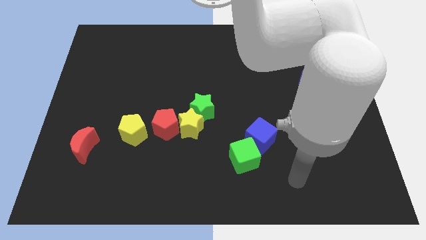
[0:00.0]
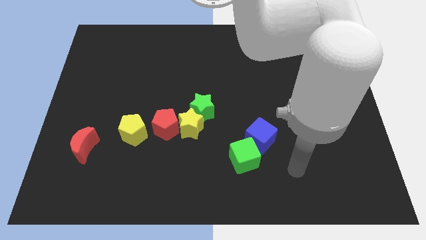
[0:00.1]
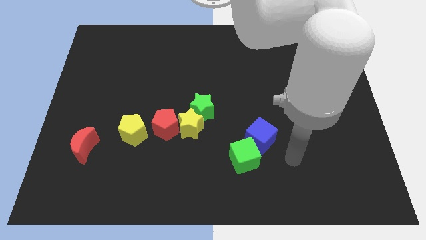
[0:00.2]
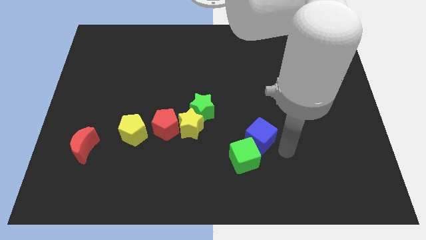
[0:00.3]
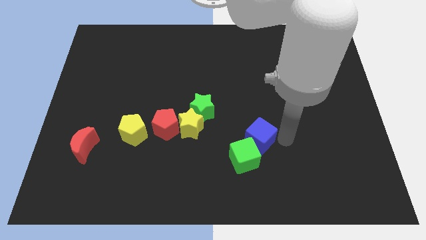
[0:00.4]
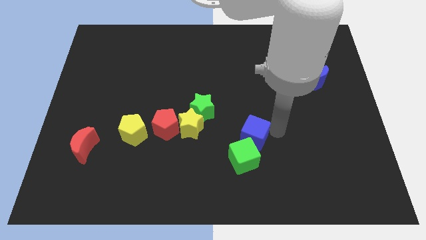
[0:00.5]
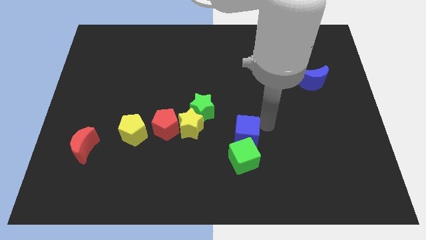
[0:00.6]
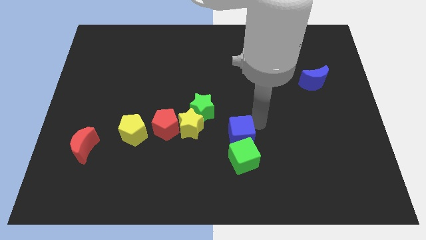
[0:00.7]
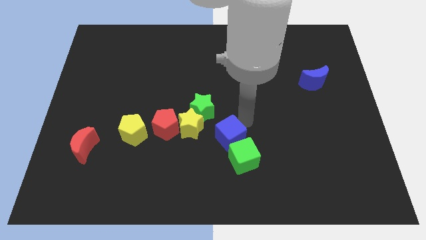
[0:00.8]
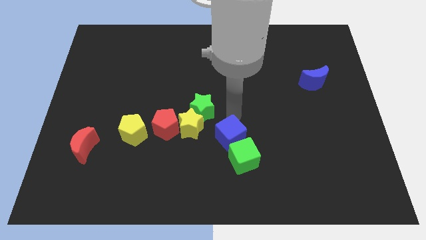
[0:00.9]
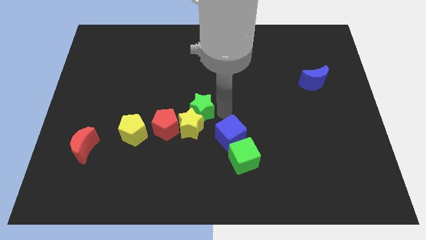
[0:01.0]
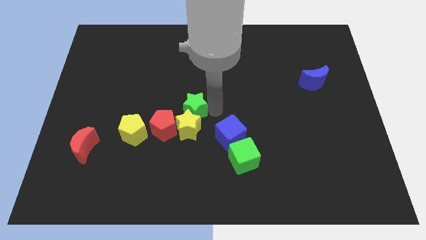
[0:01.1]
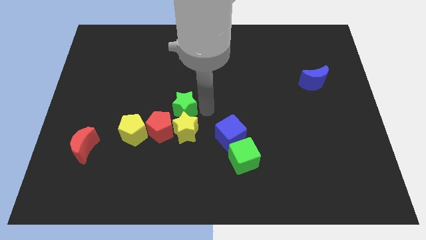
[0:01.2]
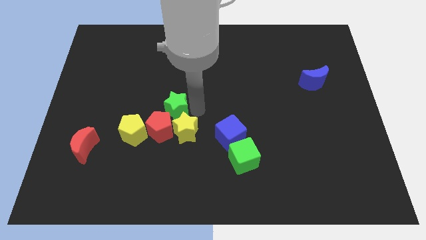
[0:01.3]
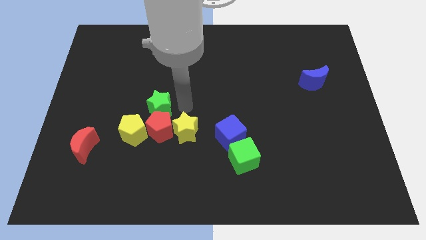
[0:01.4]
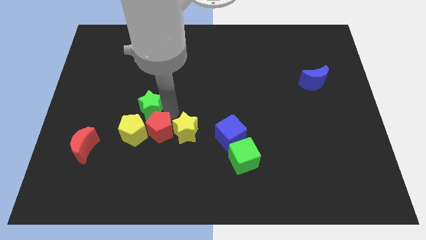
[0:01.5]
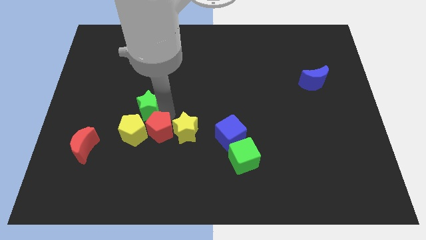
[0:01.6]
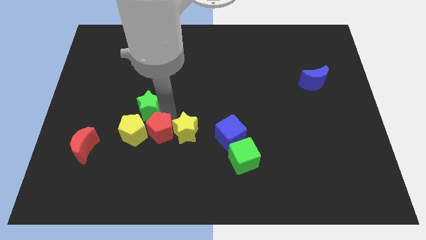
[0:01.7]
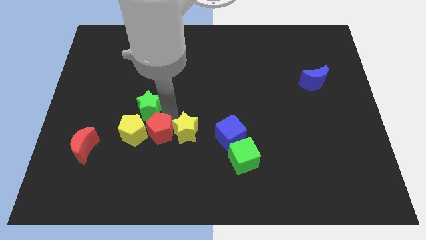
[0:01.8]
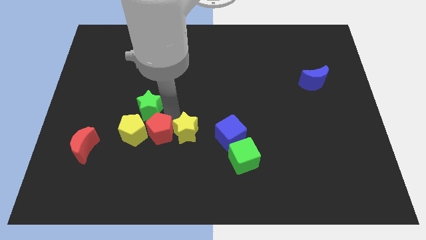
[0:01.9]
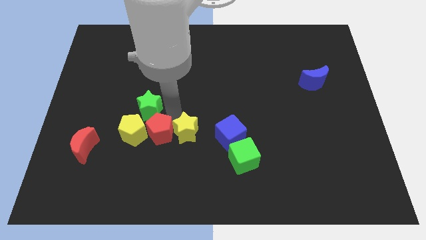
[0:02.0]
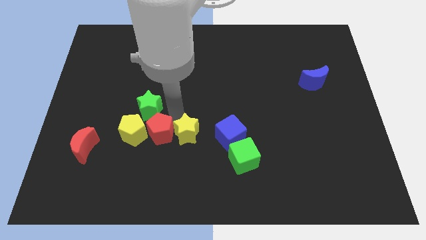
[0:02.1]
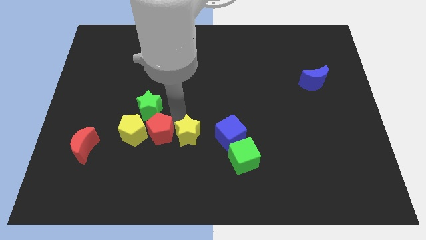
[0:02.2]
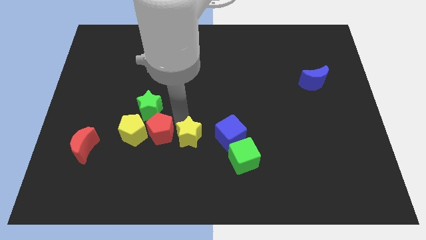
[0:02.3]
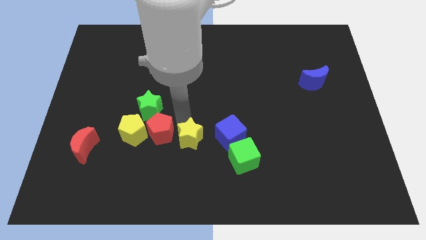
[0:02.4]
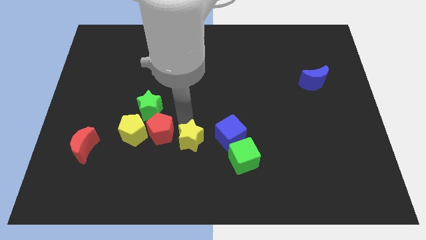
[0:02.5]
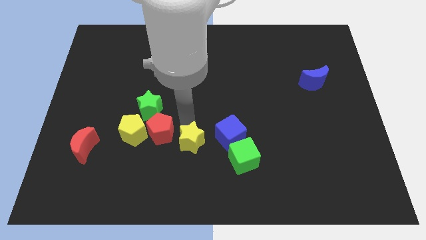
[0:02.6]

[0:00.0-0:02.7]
move the yellow star away from the green star and red pentagon

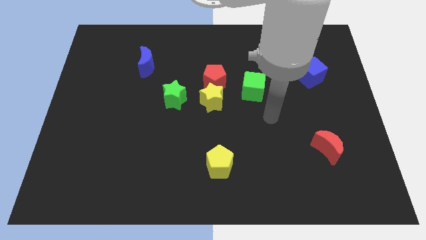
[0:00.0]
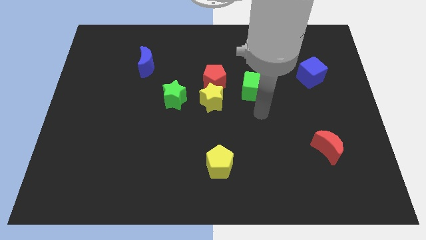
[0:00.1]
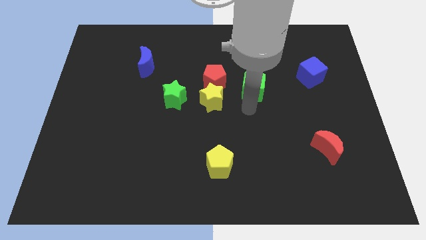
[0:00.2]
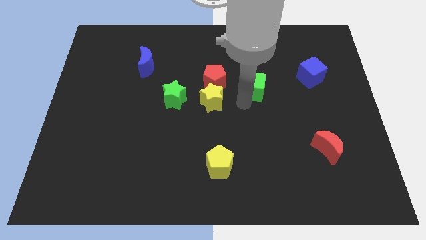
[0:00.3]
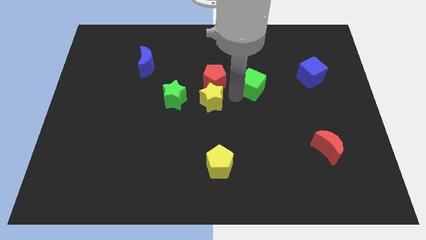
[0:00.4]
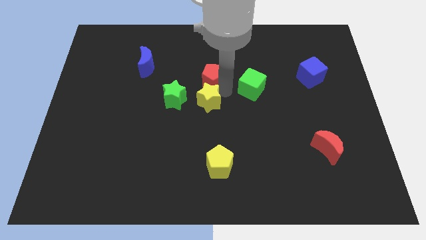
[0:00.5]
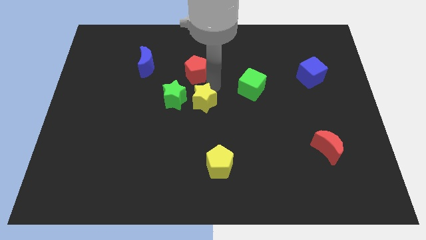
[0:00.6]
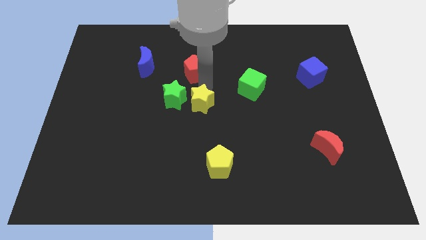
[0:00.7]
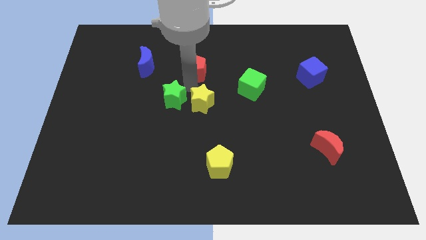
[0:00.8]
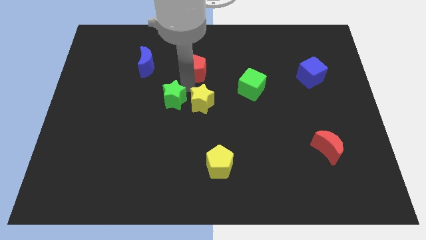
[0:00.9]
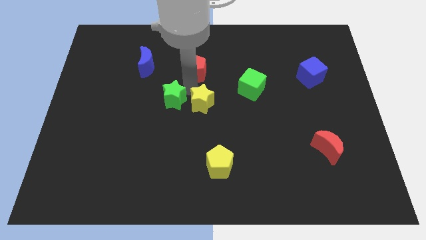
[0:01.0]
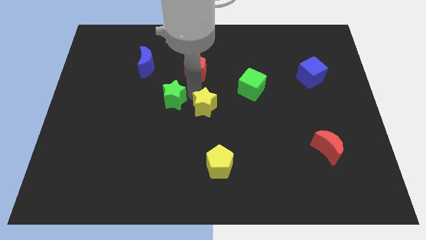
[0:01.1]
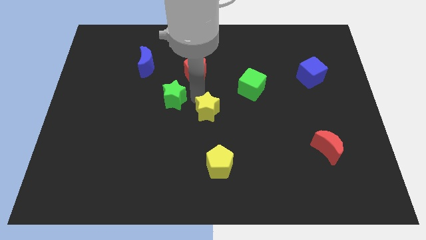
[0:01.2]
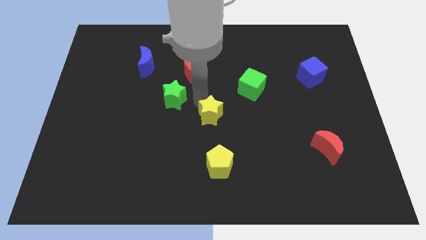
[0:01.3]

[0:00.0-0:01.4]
move the yellow star away from the red pentagon and green star

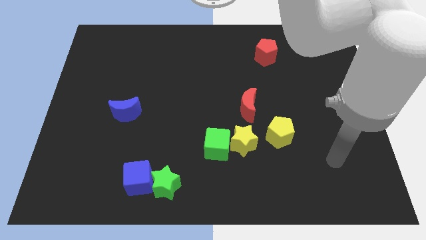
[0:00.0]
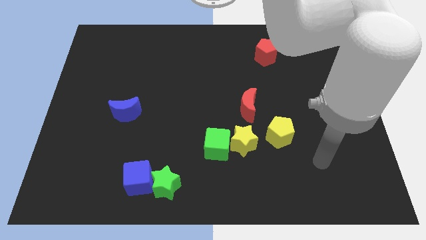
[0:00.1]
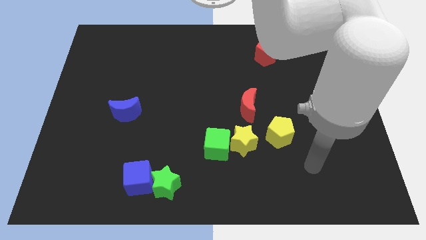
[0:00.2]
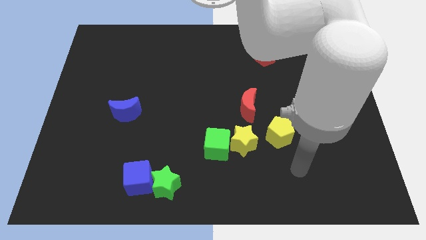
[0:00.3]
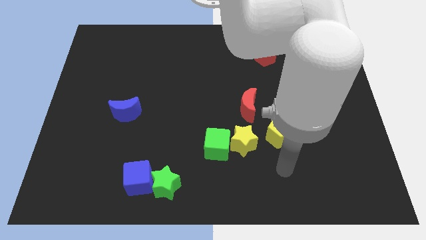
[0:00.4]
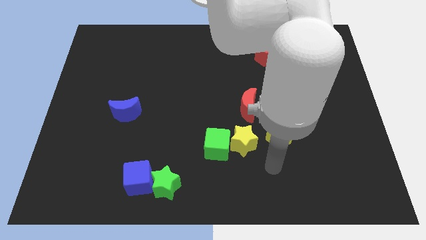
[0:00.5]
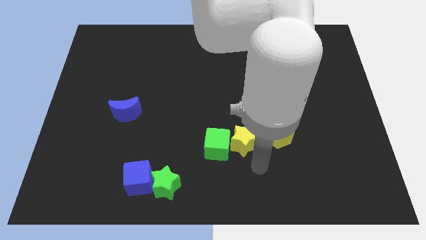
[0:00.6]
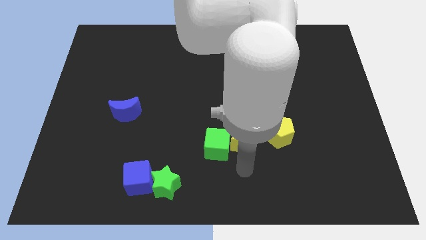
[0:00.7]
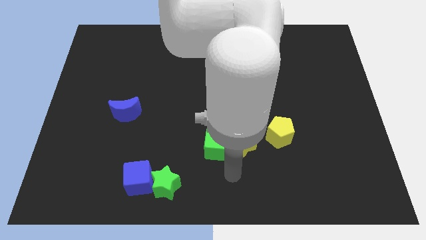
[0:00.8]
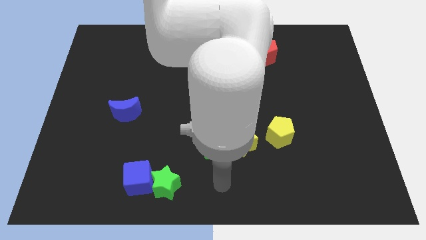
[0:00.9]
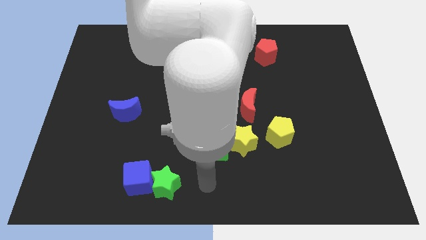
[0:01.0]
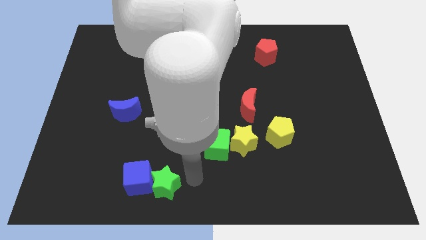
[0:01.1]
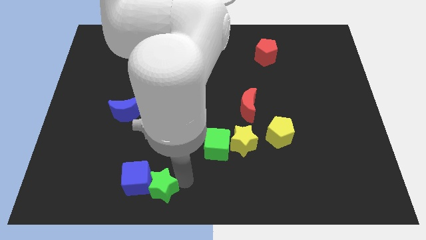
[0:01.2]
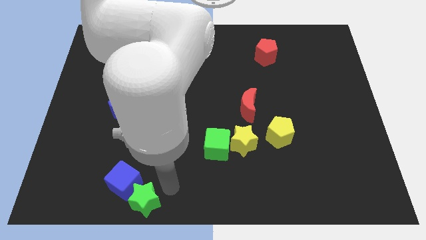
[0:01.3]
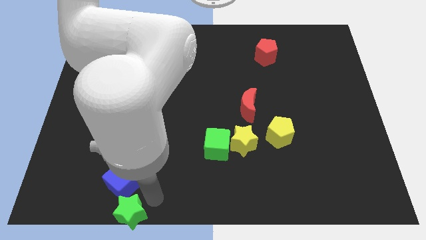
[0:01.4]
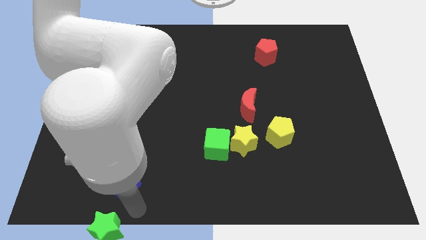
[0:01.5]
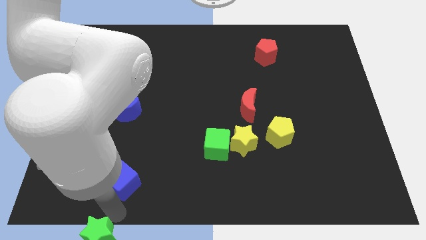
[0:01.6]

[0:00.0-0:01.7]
move the blue cube away from the green star

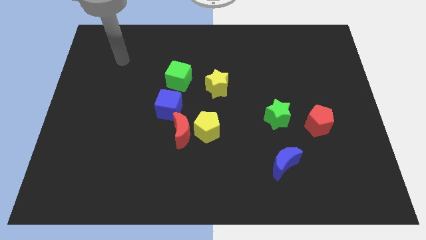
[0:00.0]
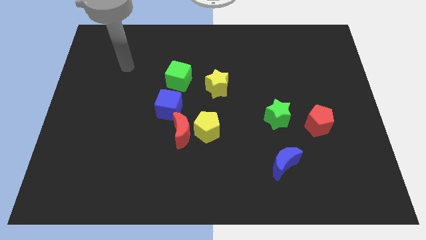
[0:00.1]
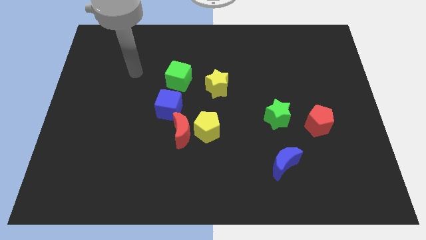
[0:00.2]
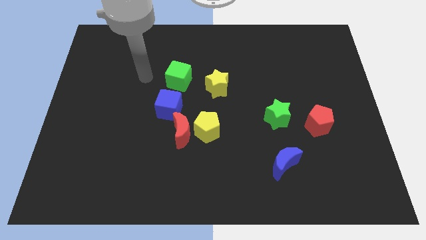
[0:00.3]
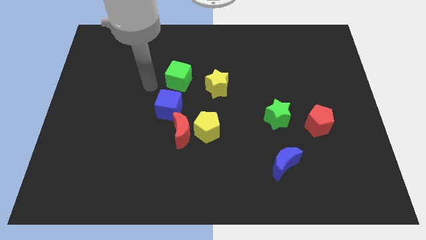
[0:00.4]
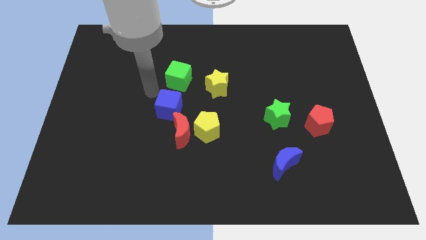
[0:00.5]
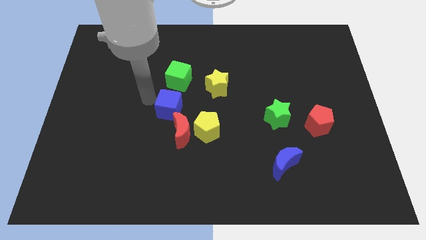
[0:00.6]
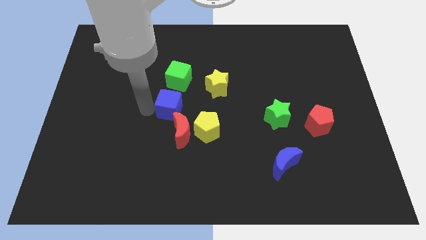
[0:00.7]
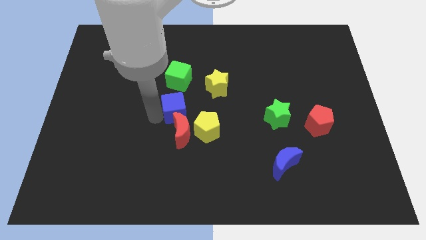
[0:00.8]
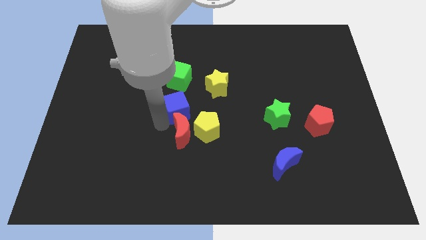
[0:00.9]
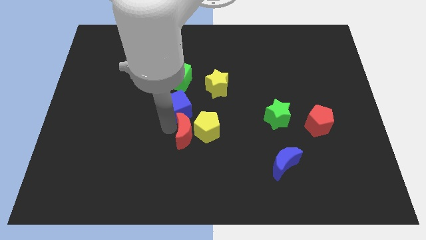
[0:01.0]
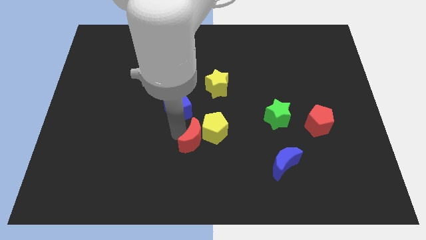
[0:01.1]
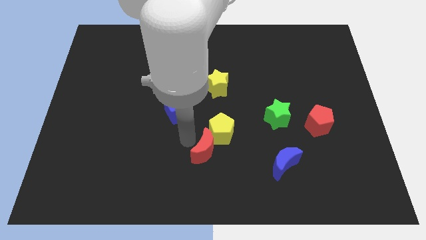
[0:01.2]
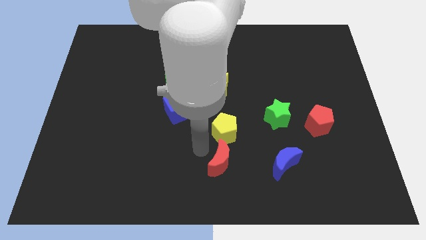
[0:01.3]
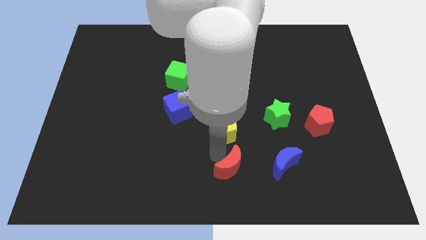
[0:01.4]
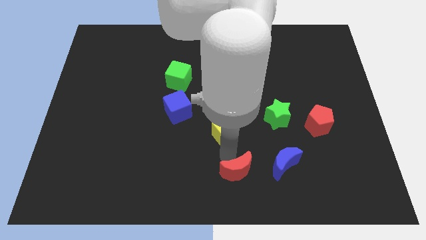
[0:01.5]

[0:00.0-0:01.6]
separate the yellow pentagon from the red moon

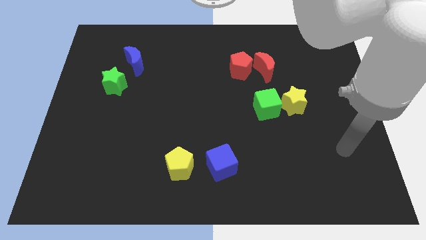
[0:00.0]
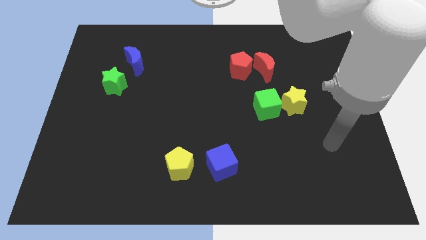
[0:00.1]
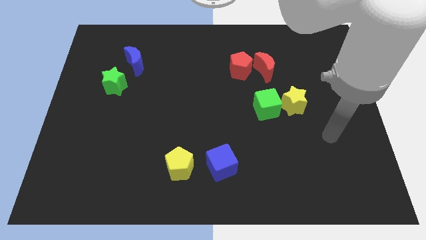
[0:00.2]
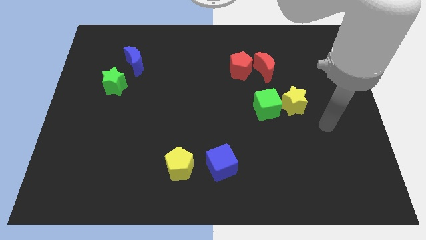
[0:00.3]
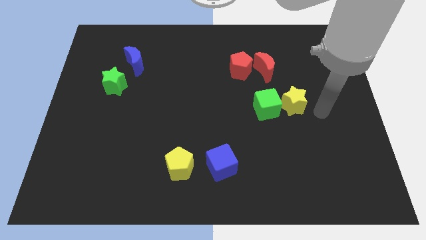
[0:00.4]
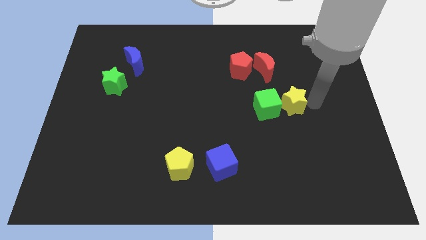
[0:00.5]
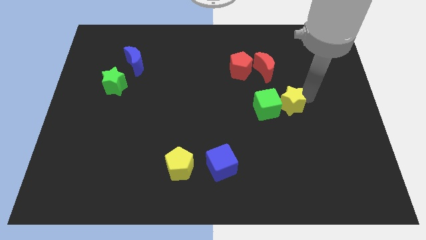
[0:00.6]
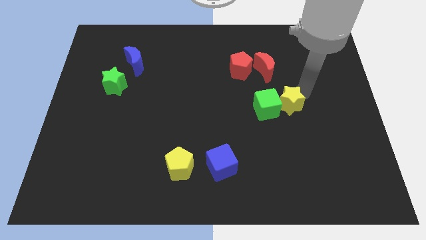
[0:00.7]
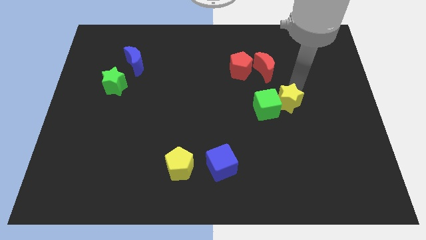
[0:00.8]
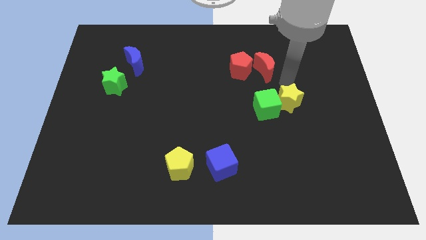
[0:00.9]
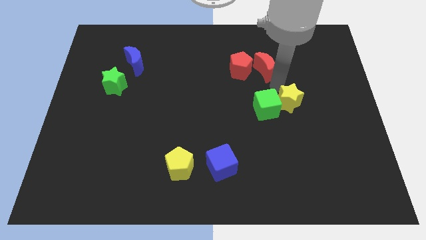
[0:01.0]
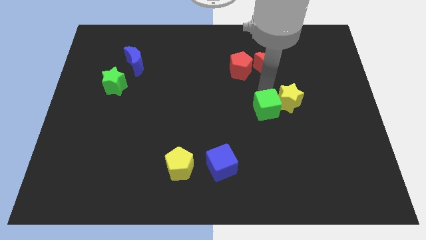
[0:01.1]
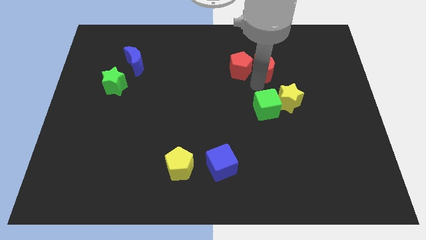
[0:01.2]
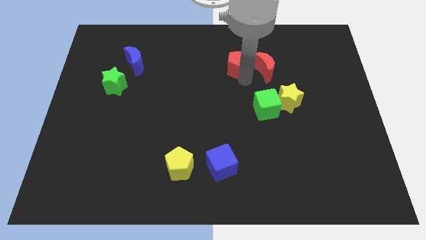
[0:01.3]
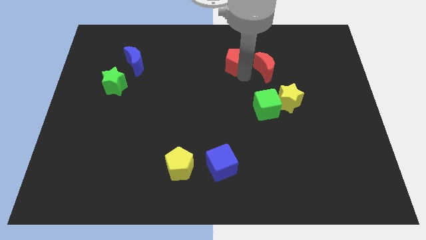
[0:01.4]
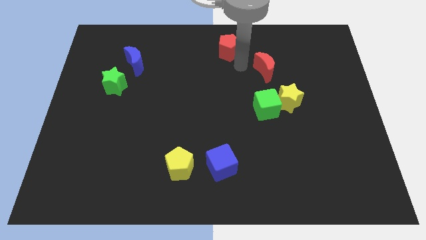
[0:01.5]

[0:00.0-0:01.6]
move the red moon away from the red pentagon

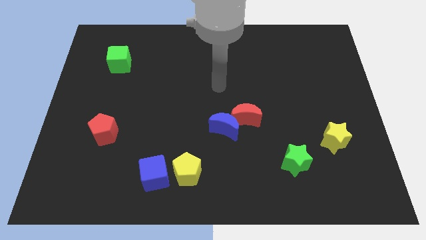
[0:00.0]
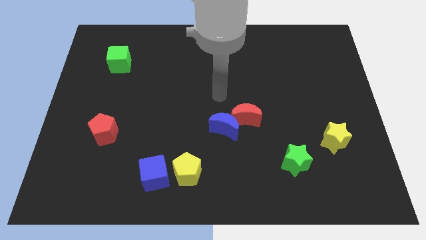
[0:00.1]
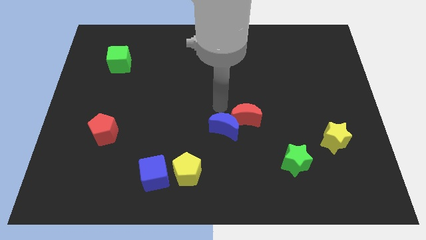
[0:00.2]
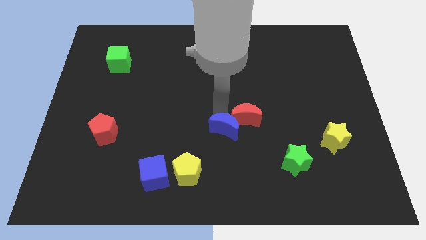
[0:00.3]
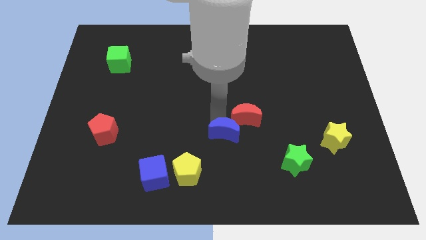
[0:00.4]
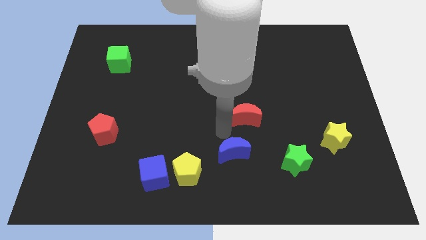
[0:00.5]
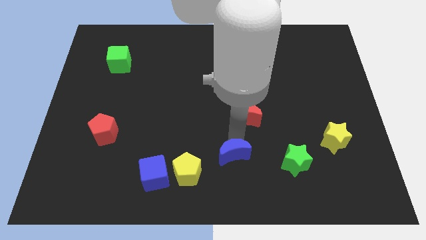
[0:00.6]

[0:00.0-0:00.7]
move the red moon away from the blue moon
